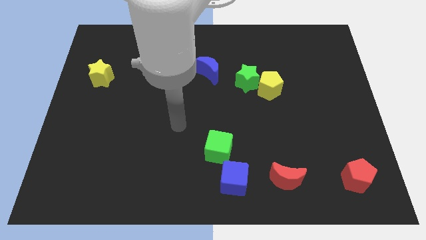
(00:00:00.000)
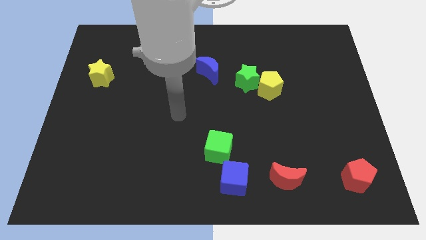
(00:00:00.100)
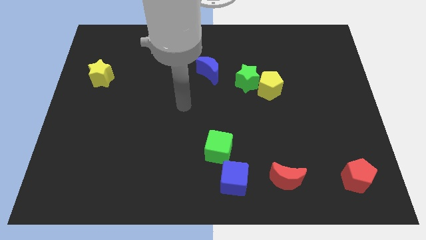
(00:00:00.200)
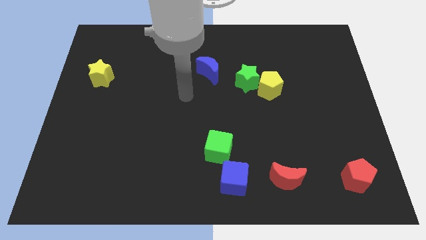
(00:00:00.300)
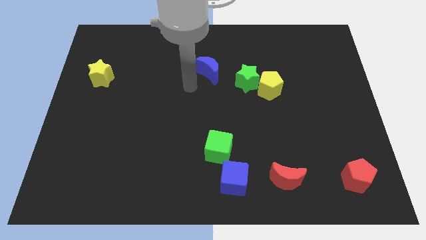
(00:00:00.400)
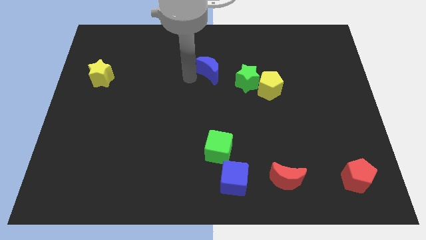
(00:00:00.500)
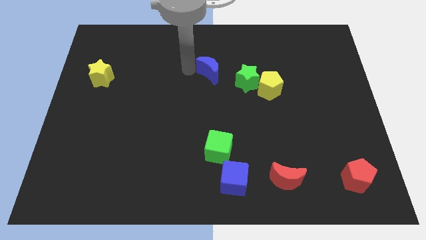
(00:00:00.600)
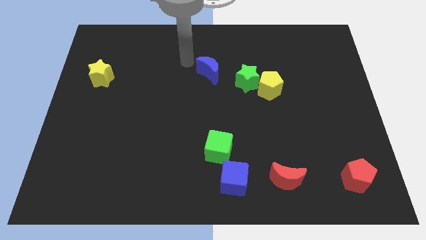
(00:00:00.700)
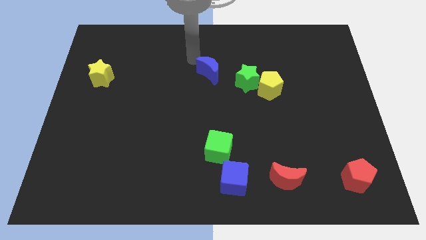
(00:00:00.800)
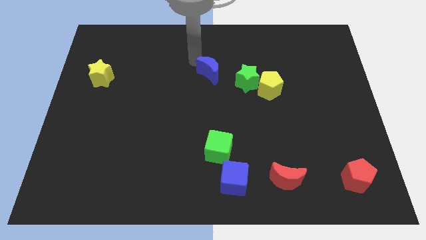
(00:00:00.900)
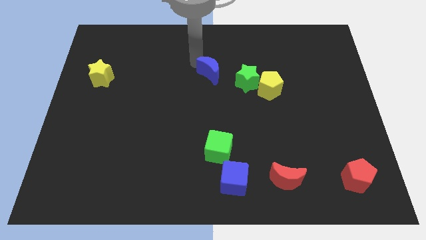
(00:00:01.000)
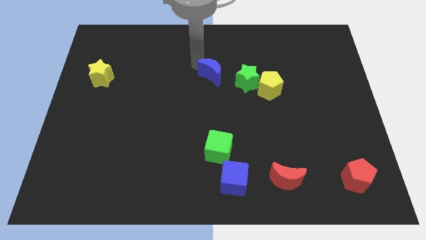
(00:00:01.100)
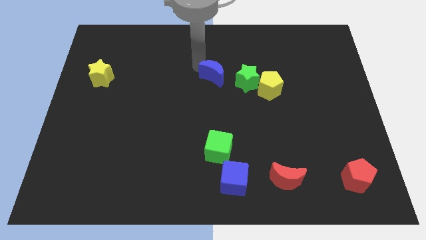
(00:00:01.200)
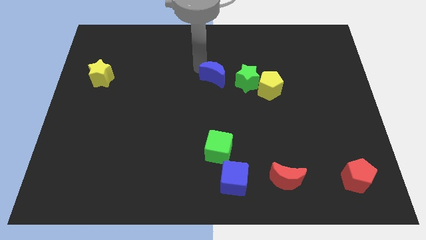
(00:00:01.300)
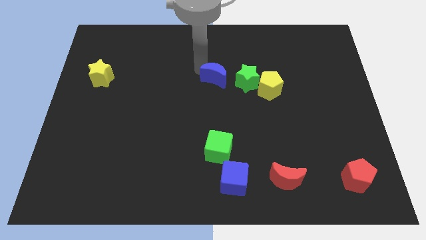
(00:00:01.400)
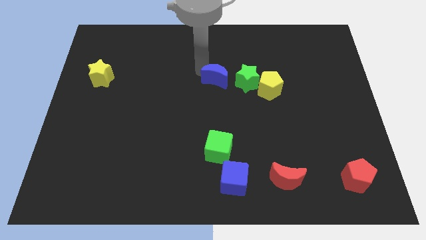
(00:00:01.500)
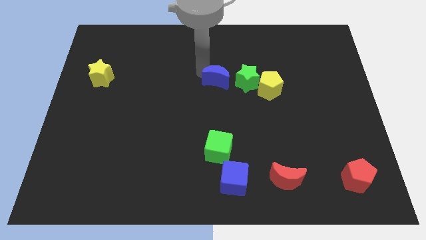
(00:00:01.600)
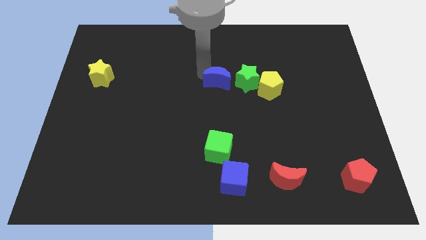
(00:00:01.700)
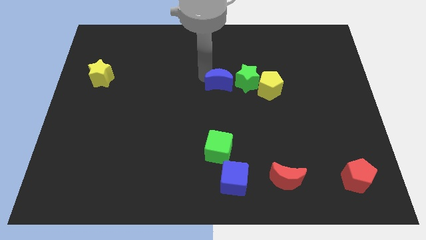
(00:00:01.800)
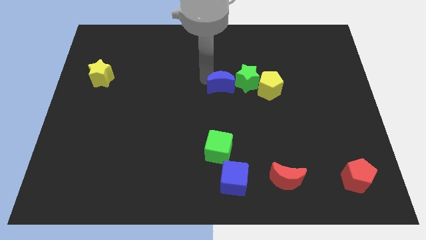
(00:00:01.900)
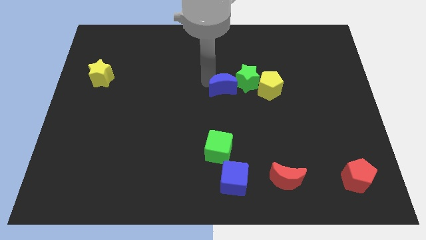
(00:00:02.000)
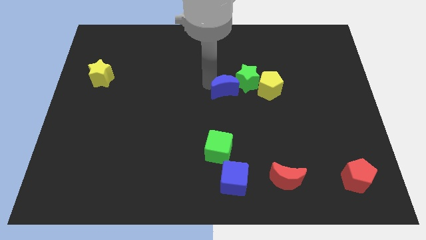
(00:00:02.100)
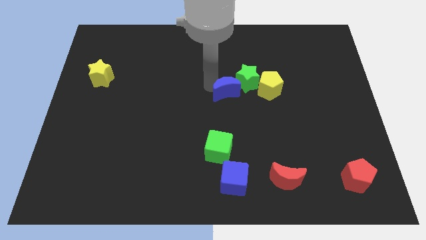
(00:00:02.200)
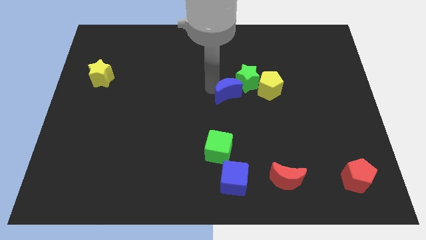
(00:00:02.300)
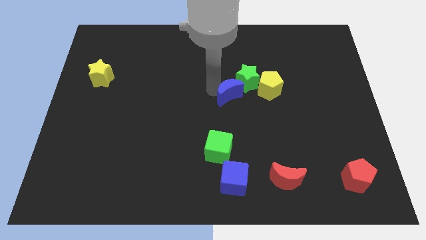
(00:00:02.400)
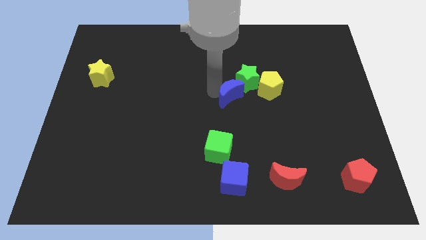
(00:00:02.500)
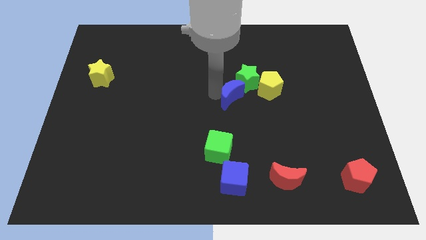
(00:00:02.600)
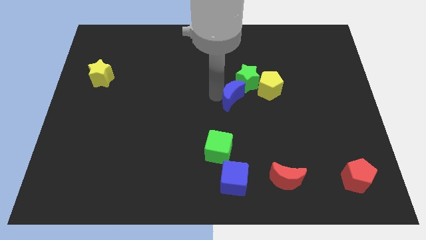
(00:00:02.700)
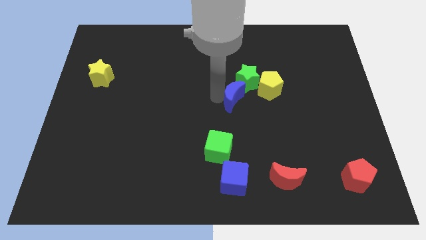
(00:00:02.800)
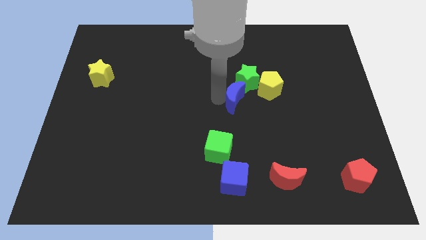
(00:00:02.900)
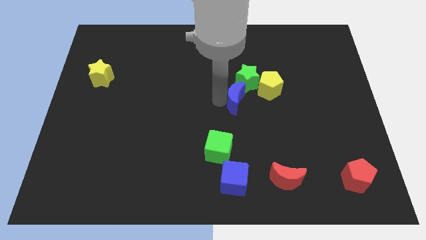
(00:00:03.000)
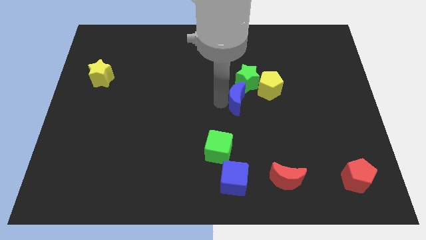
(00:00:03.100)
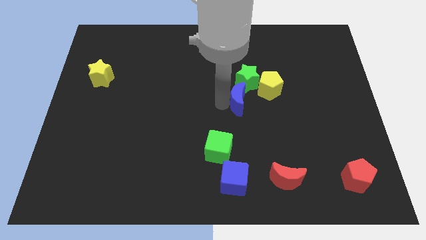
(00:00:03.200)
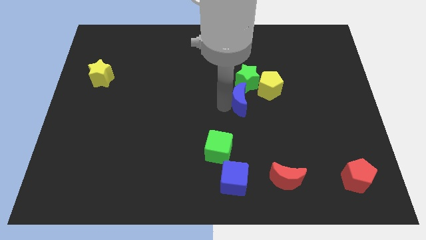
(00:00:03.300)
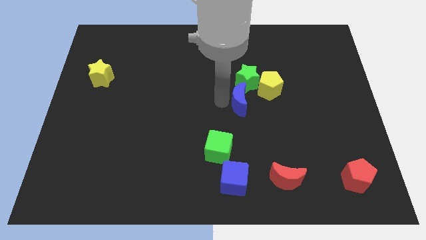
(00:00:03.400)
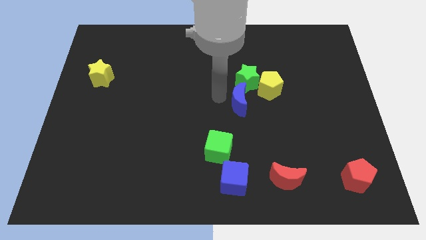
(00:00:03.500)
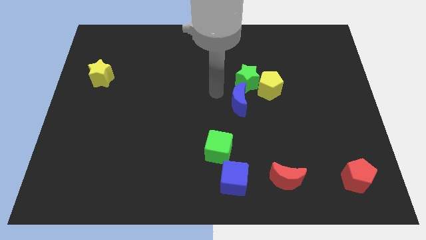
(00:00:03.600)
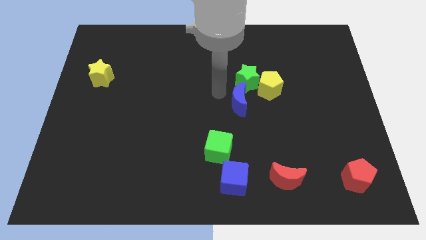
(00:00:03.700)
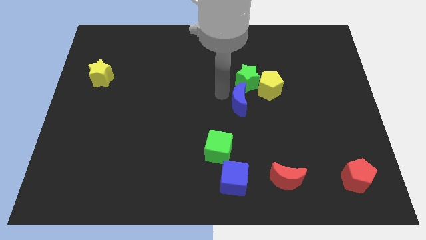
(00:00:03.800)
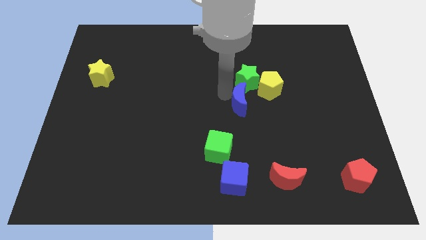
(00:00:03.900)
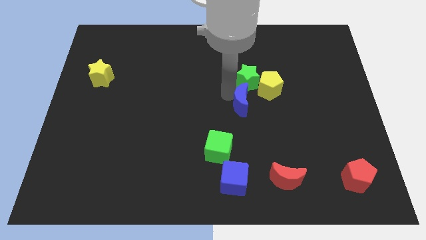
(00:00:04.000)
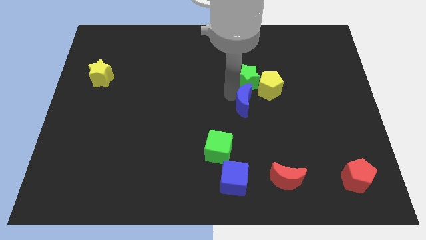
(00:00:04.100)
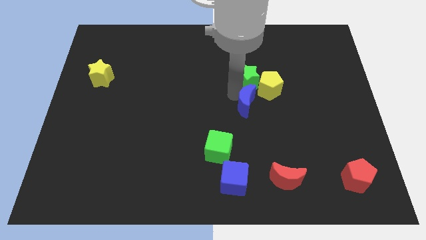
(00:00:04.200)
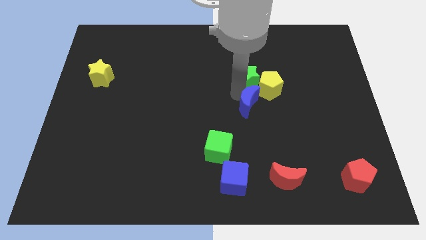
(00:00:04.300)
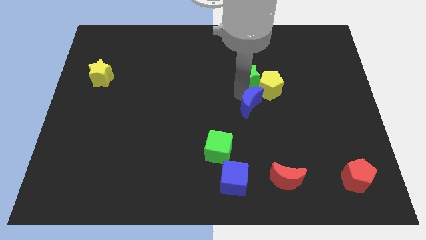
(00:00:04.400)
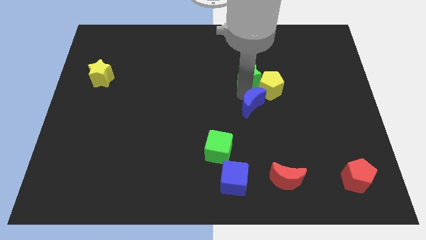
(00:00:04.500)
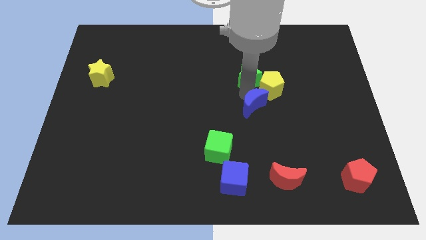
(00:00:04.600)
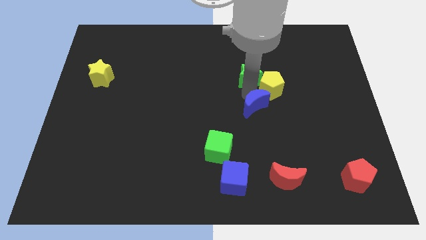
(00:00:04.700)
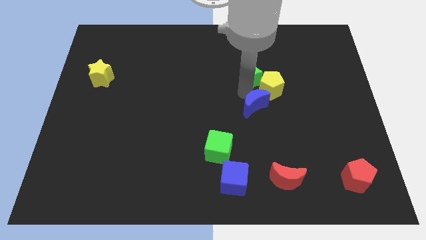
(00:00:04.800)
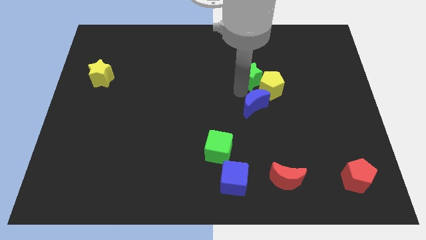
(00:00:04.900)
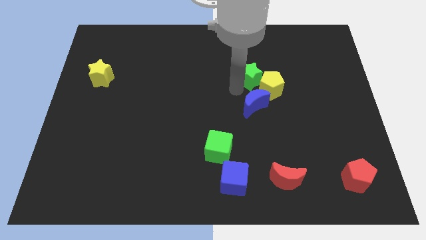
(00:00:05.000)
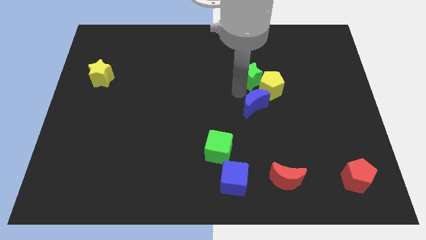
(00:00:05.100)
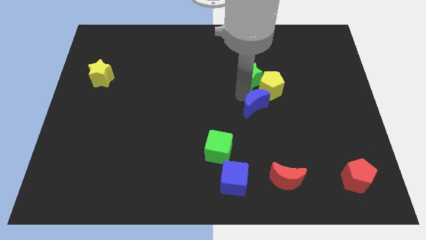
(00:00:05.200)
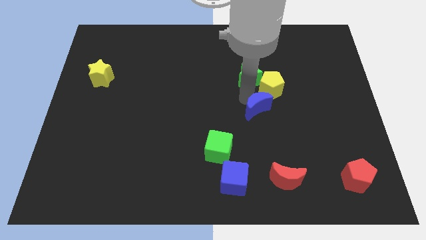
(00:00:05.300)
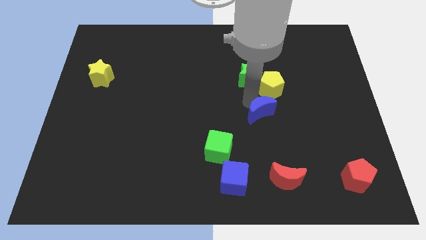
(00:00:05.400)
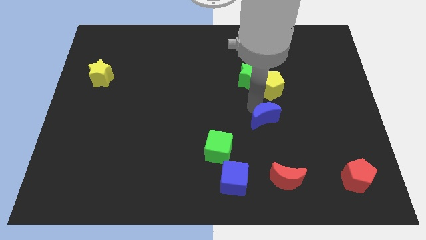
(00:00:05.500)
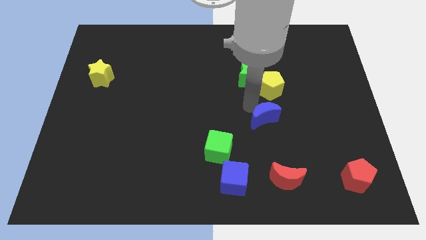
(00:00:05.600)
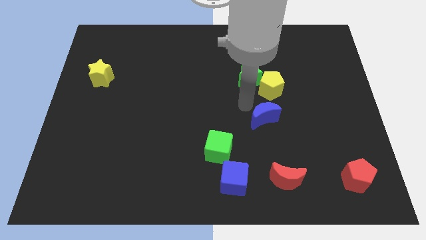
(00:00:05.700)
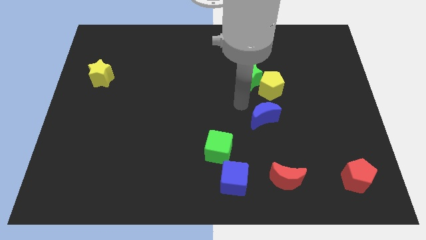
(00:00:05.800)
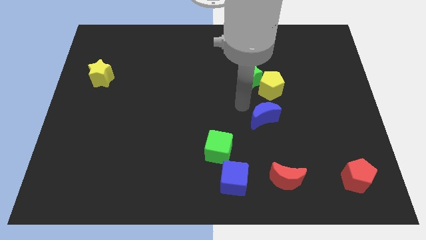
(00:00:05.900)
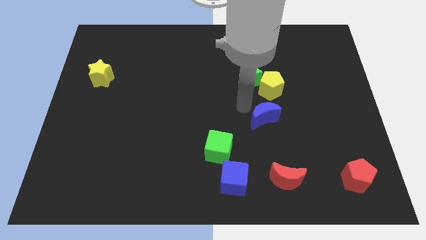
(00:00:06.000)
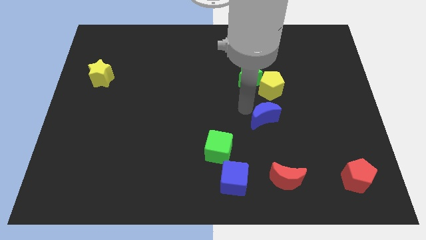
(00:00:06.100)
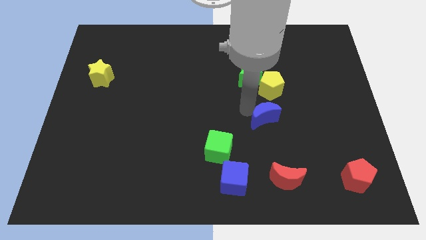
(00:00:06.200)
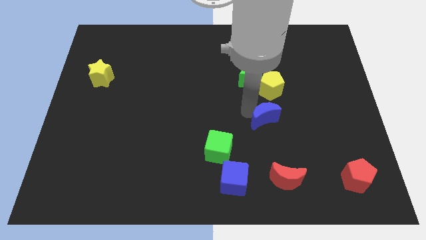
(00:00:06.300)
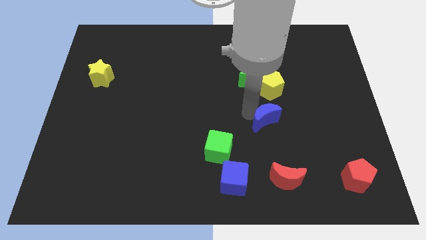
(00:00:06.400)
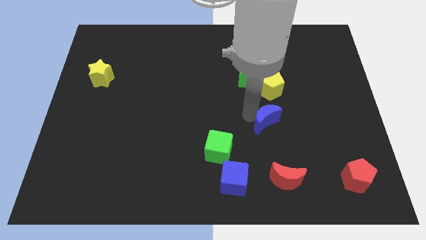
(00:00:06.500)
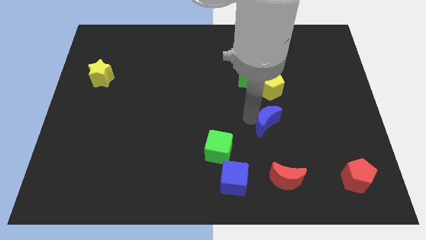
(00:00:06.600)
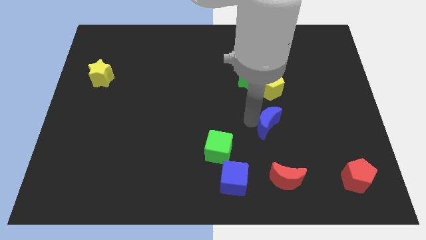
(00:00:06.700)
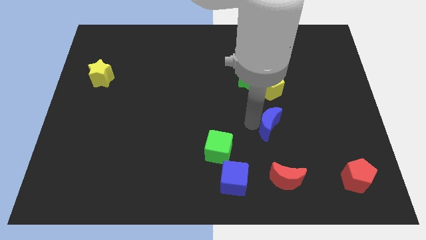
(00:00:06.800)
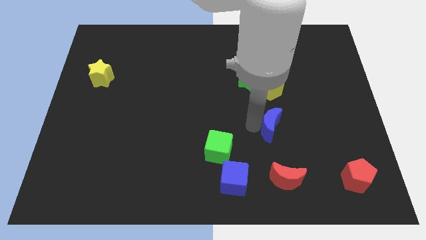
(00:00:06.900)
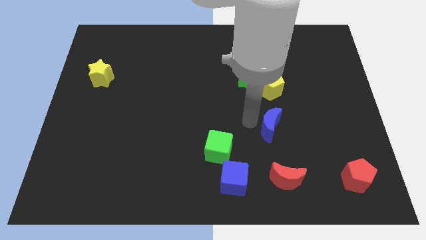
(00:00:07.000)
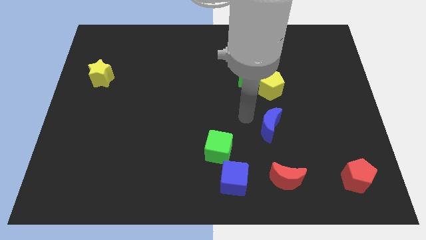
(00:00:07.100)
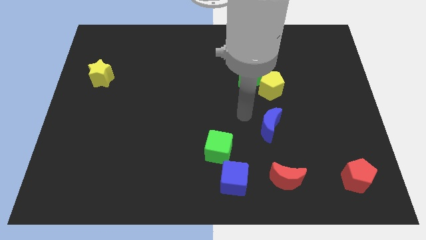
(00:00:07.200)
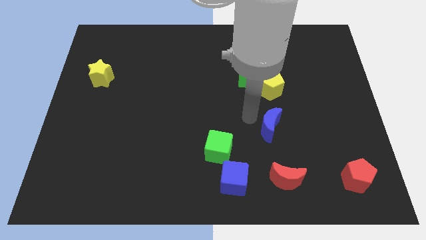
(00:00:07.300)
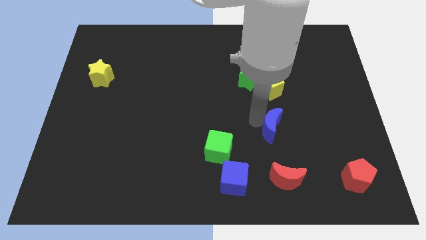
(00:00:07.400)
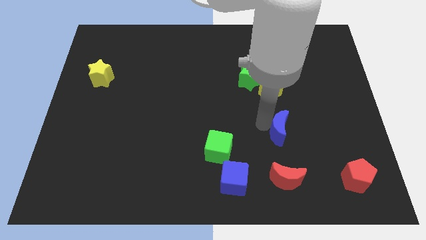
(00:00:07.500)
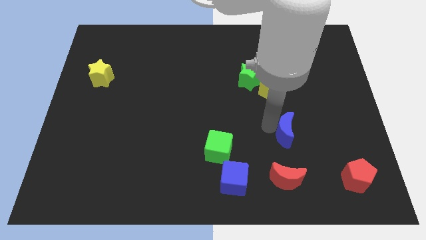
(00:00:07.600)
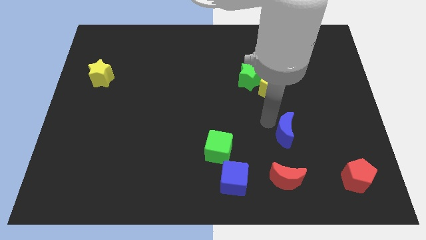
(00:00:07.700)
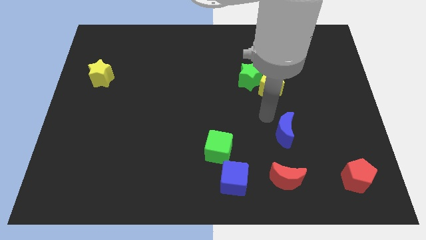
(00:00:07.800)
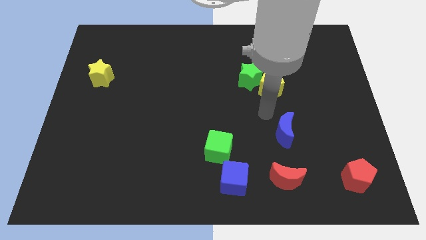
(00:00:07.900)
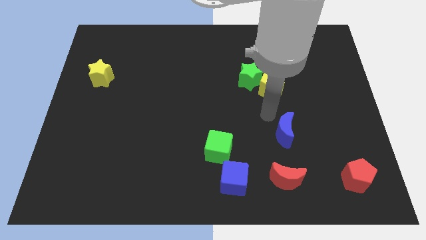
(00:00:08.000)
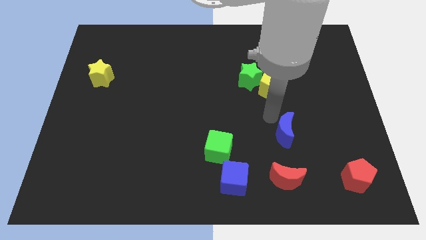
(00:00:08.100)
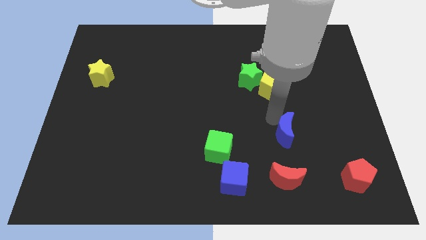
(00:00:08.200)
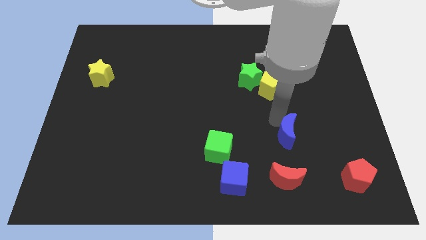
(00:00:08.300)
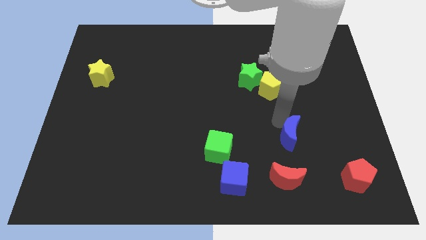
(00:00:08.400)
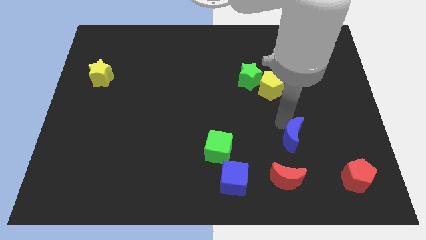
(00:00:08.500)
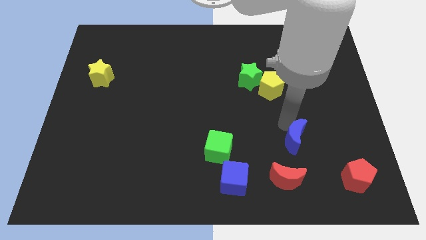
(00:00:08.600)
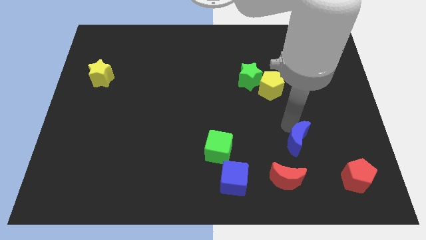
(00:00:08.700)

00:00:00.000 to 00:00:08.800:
move the blue moon diagonally up and to the right of the red moon
